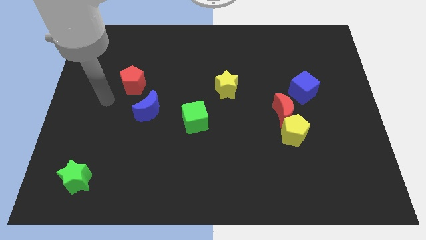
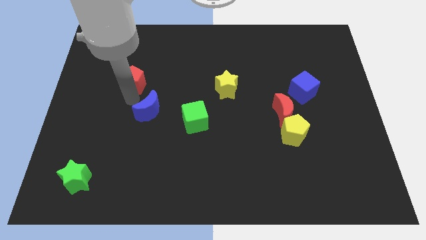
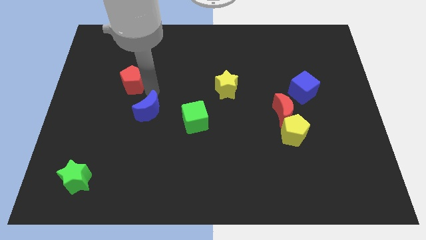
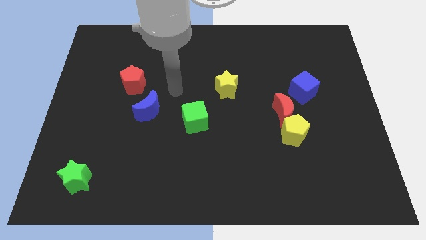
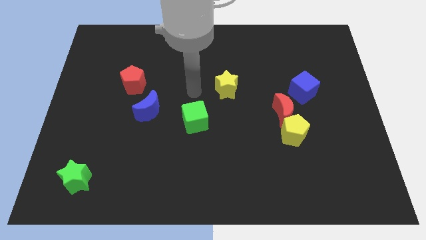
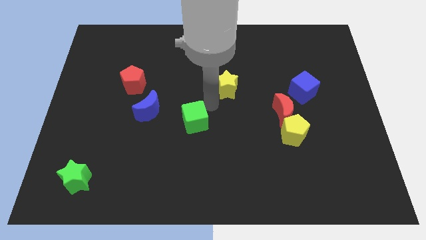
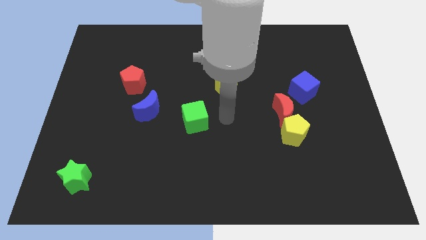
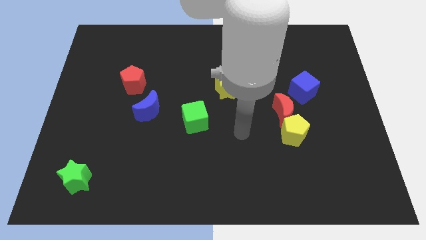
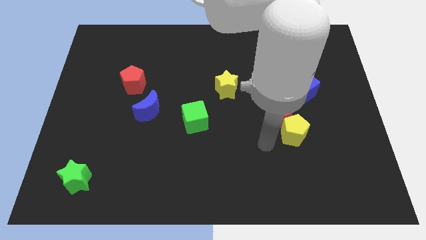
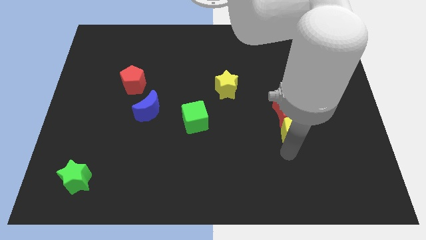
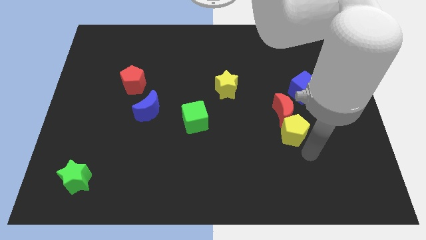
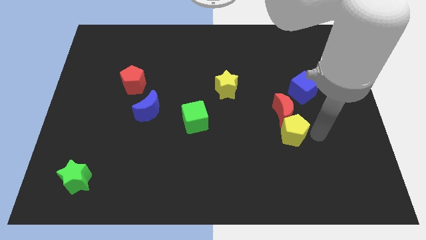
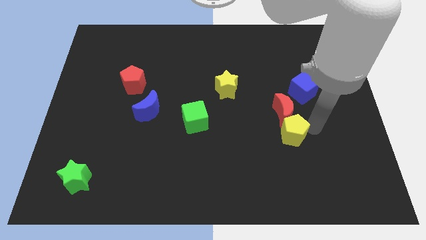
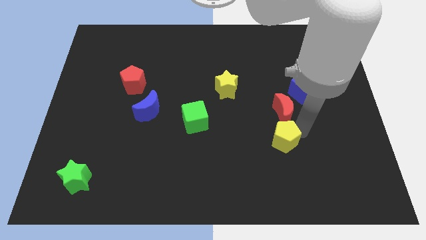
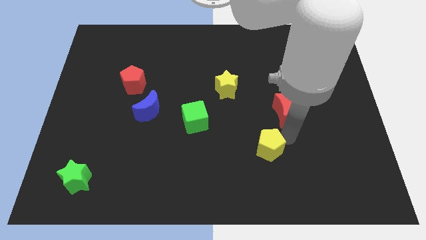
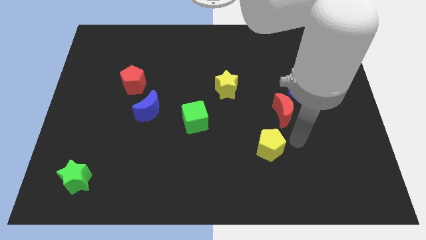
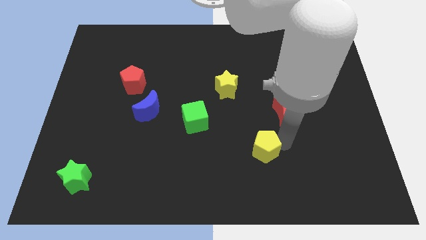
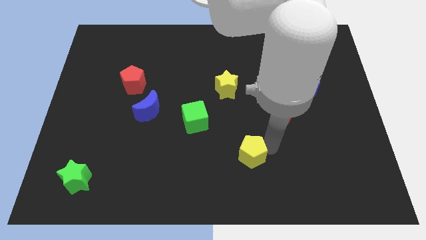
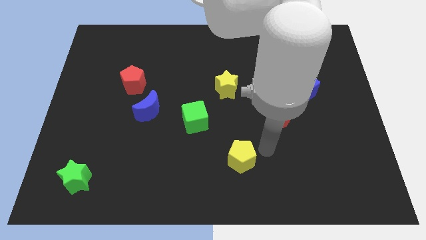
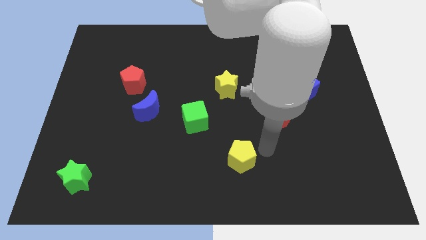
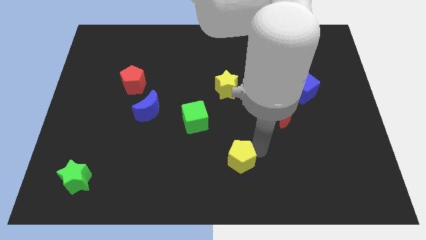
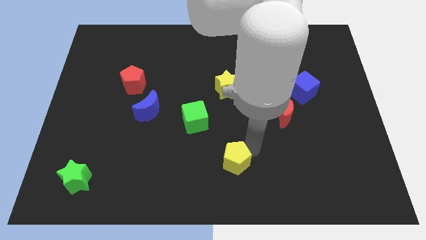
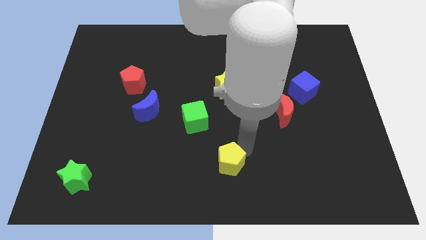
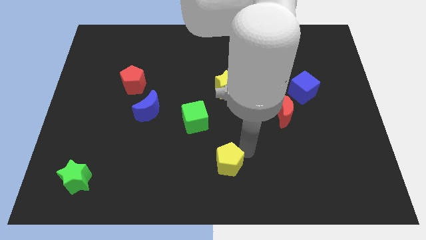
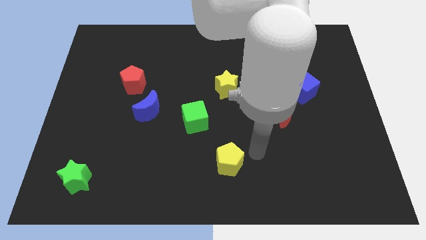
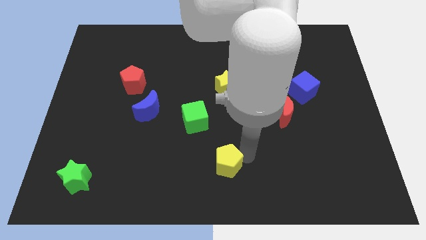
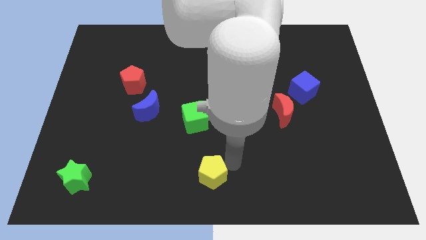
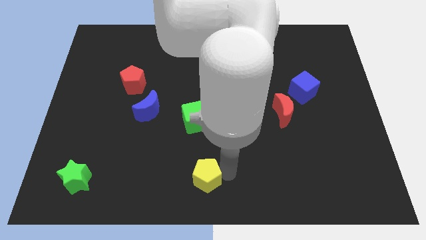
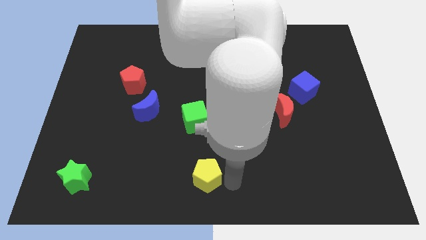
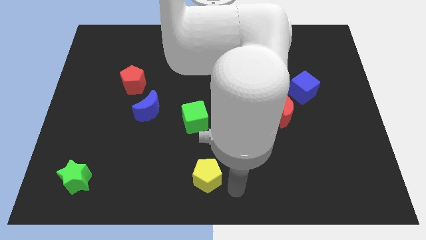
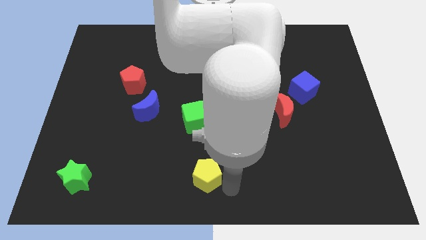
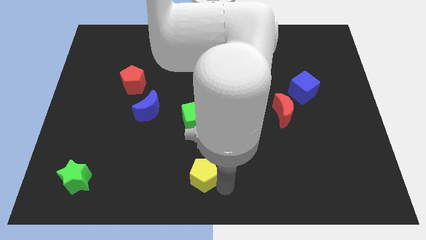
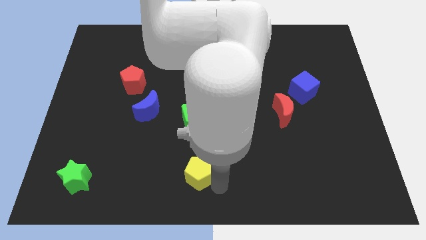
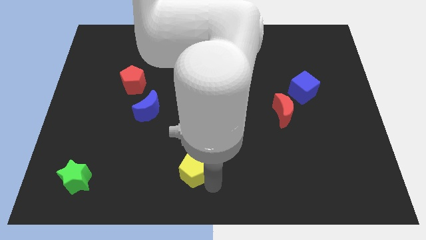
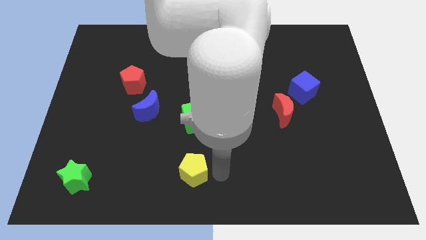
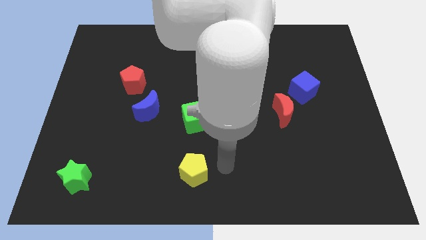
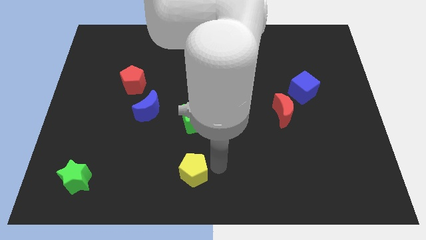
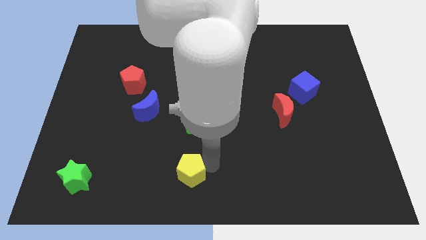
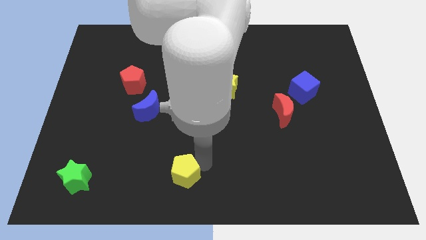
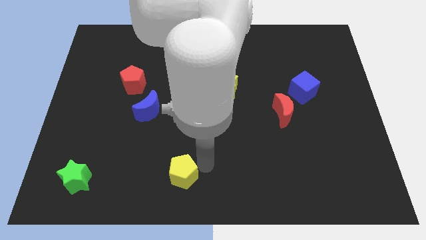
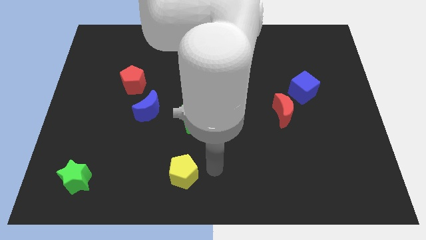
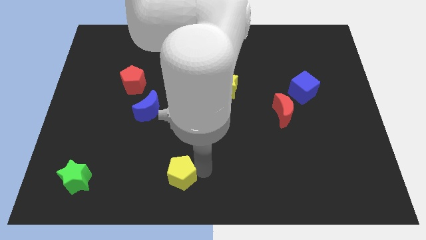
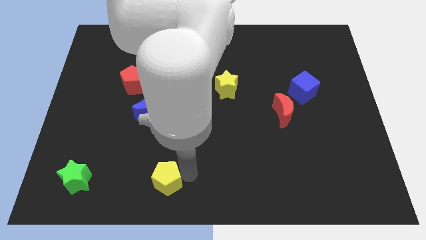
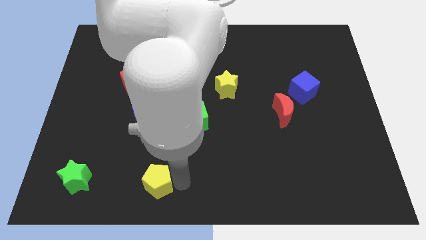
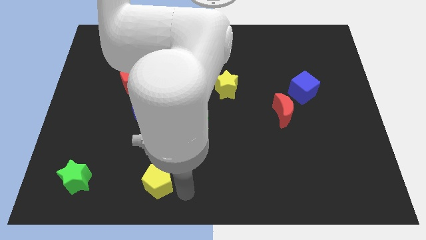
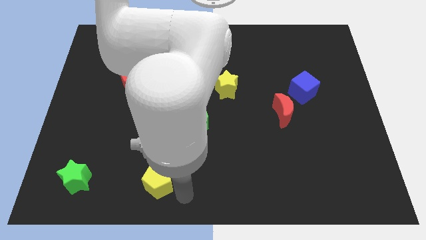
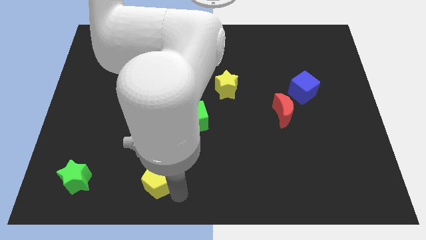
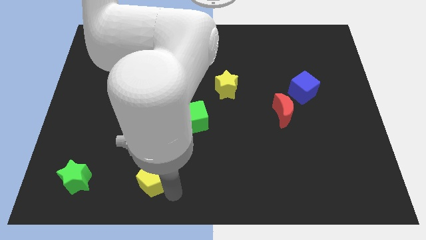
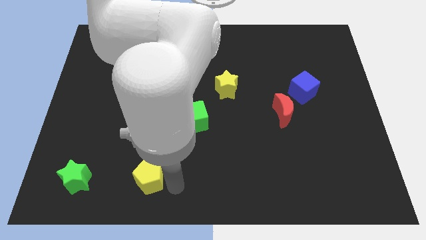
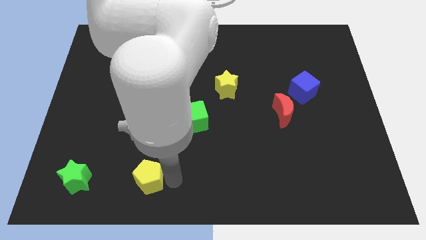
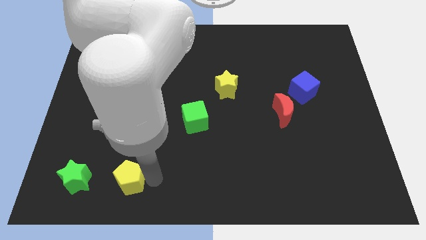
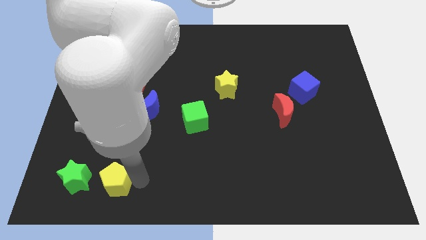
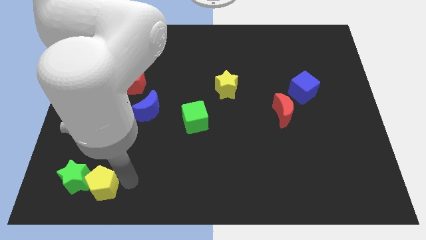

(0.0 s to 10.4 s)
slide the yellow pentagon towards the green star

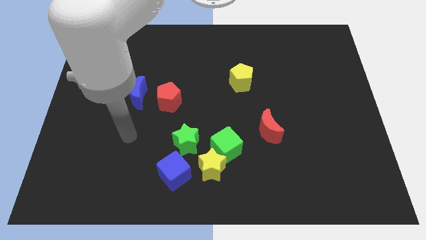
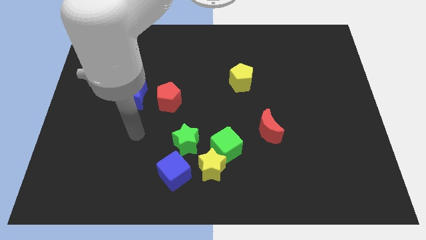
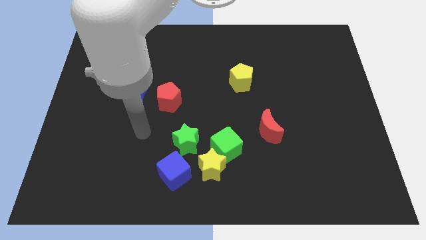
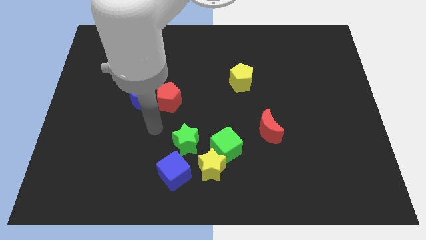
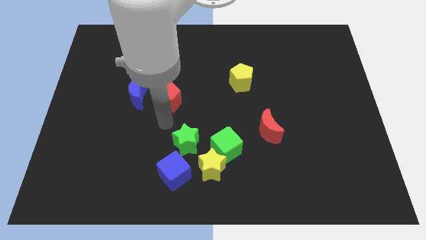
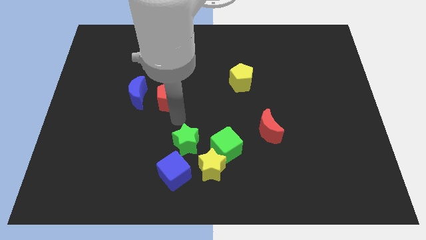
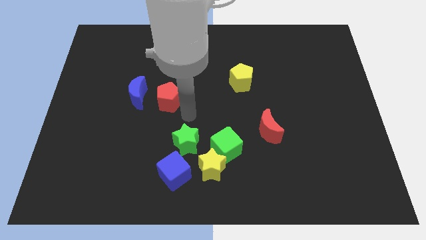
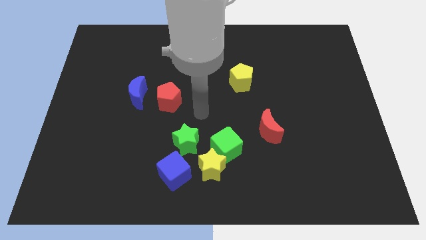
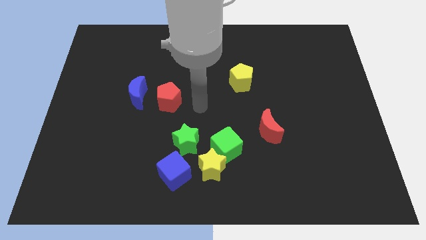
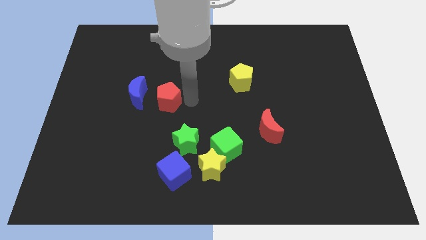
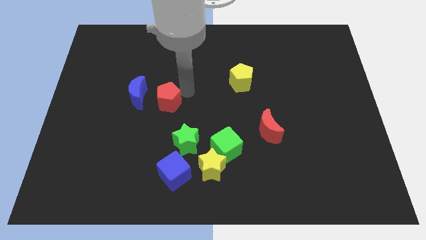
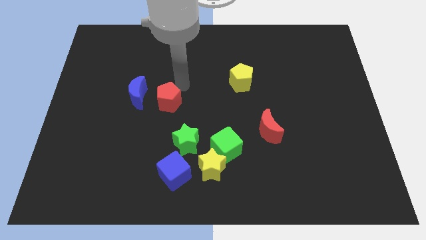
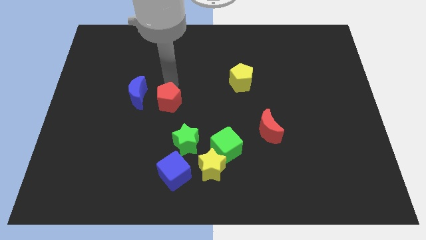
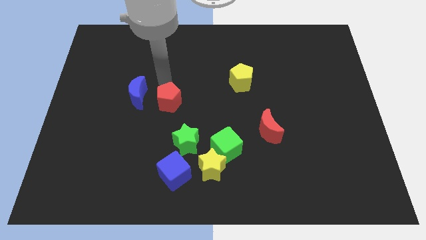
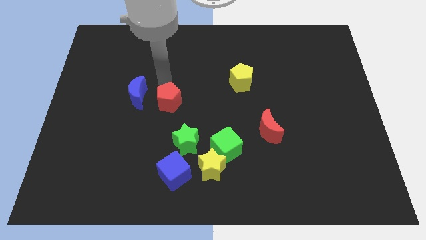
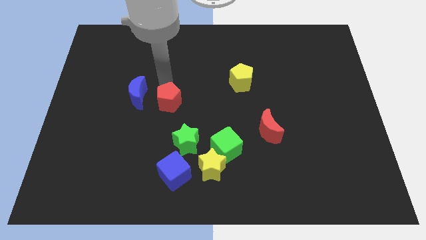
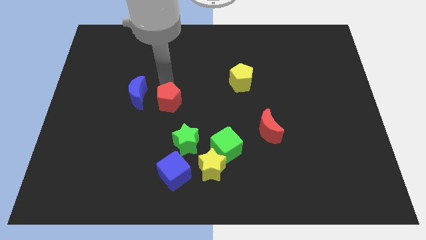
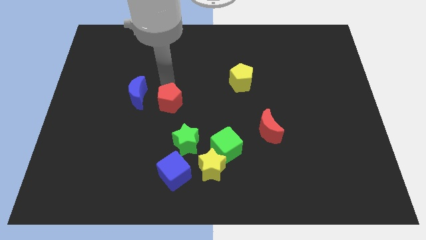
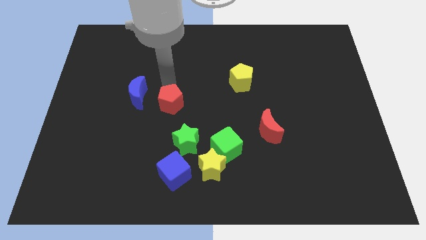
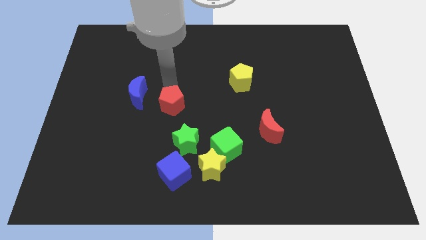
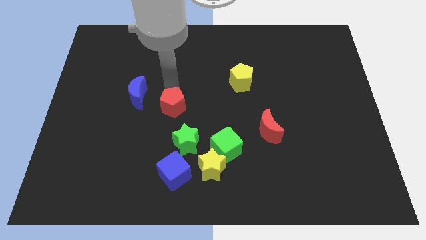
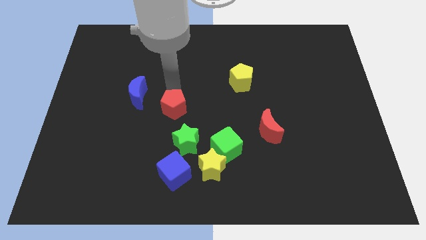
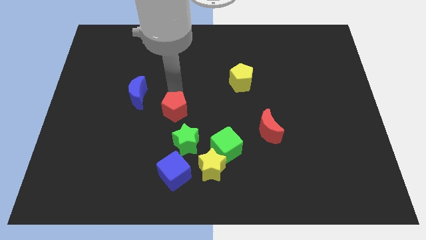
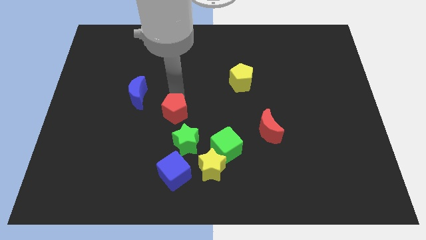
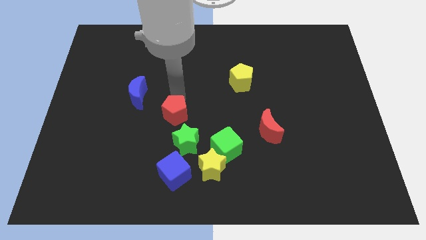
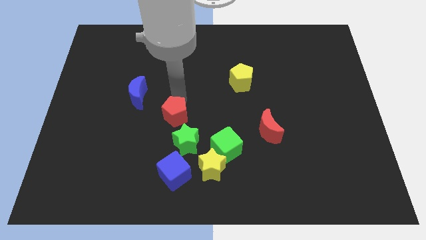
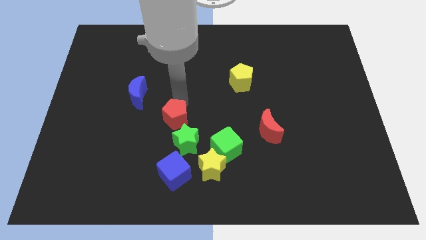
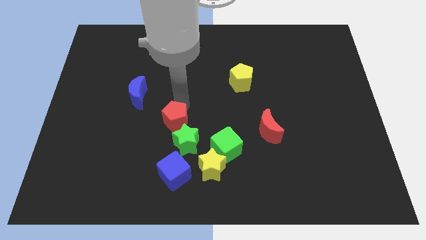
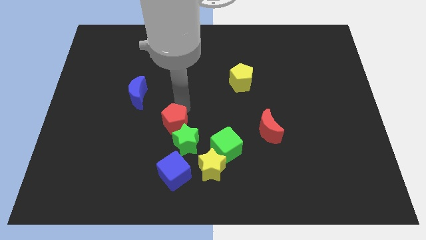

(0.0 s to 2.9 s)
put the red pentagon to the green star
